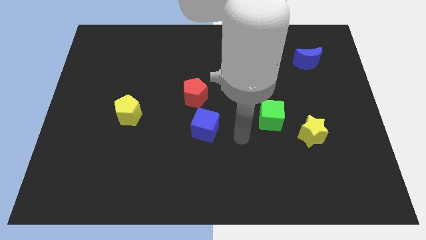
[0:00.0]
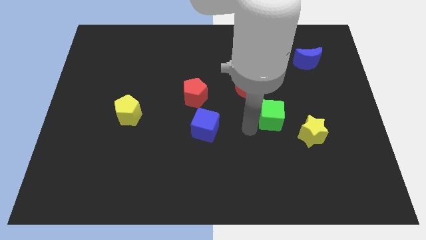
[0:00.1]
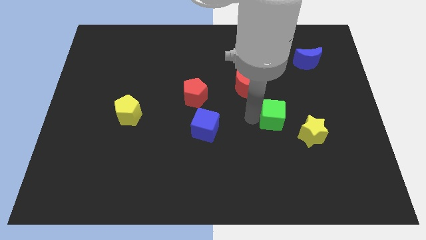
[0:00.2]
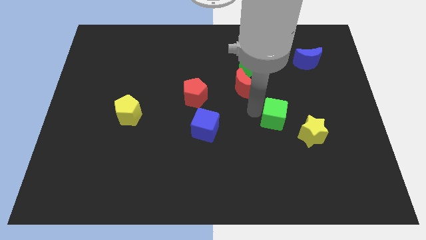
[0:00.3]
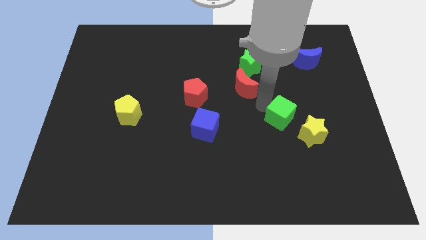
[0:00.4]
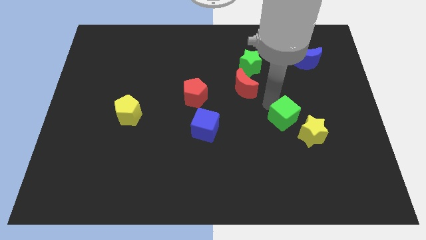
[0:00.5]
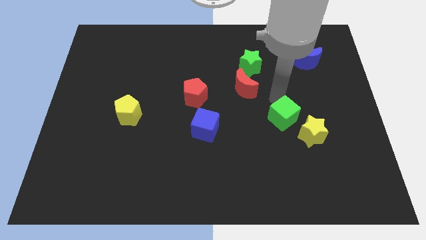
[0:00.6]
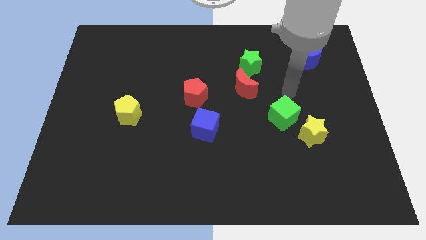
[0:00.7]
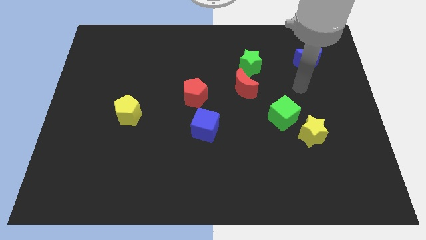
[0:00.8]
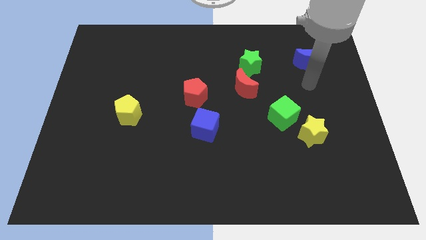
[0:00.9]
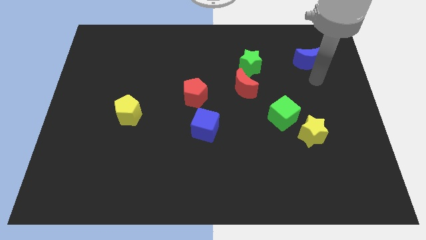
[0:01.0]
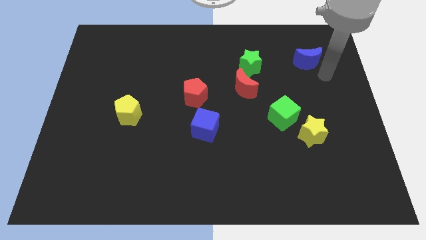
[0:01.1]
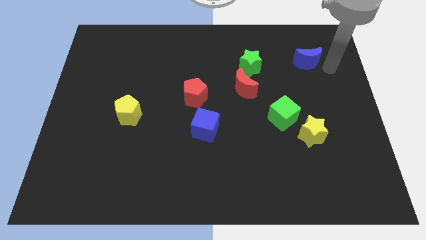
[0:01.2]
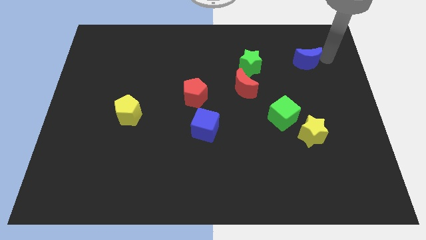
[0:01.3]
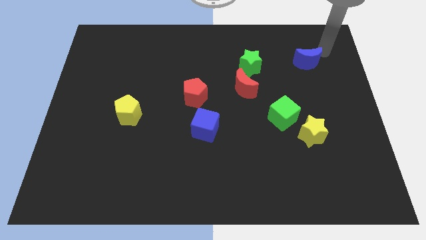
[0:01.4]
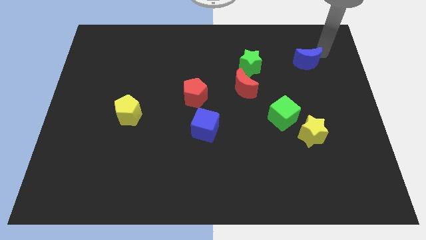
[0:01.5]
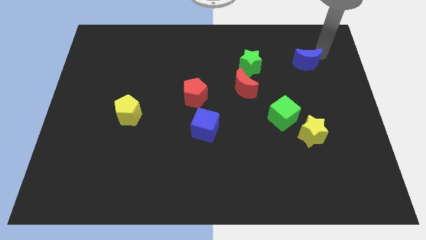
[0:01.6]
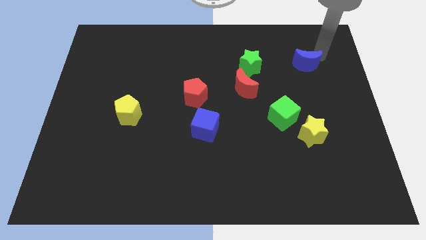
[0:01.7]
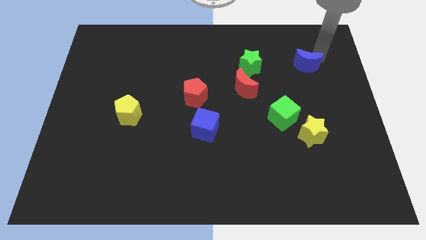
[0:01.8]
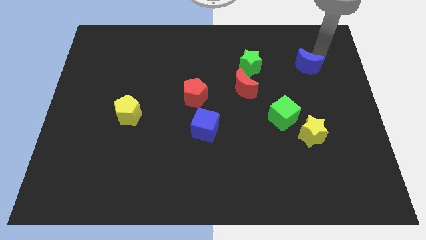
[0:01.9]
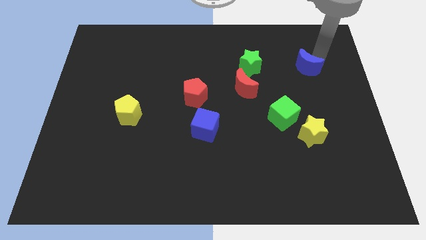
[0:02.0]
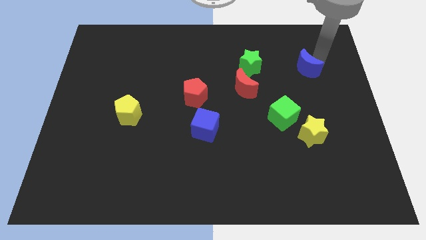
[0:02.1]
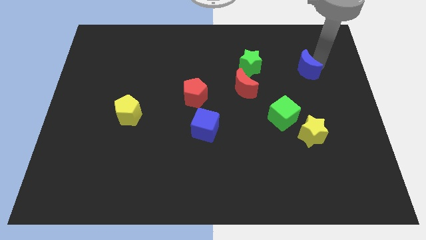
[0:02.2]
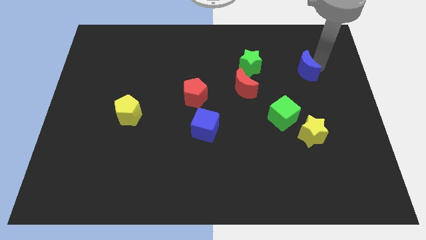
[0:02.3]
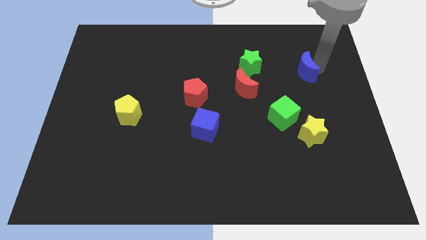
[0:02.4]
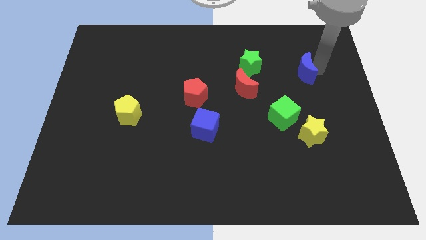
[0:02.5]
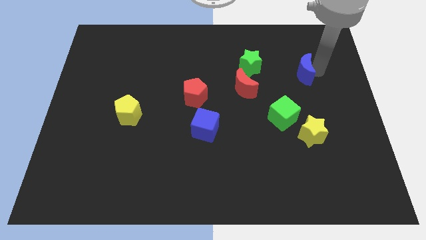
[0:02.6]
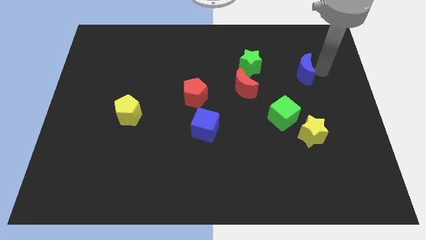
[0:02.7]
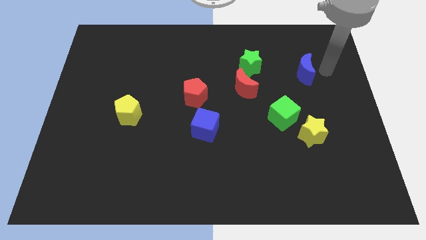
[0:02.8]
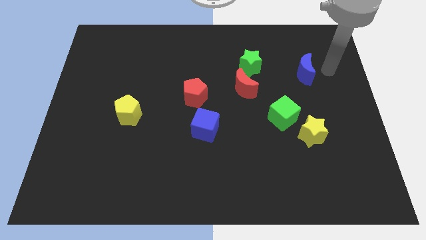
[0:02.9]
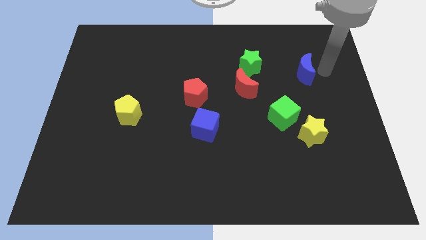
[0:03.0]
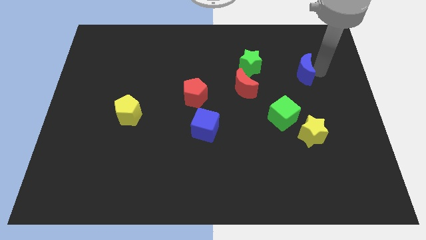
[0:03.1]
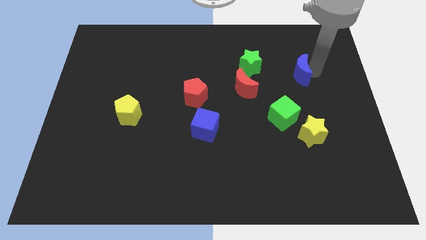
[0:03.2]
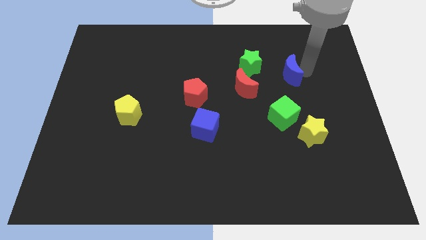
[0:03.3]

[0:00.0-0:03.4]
push the blue moon downwards and to the left slightly

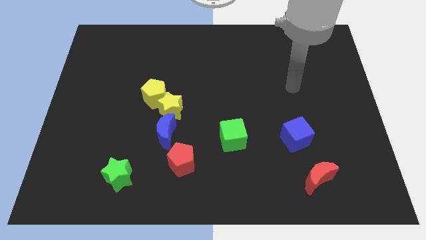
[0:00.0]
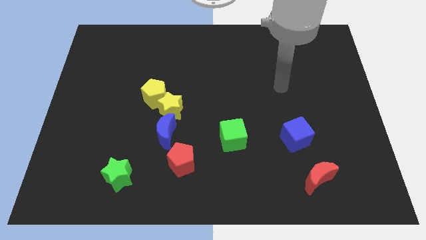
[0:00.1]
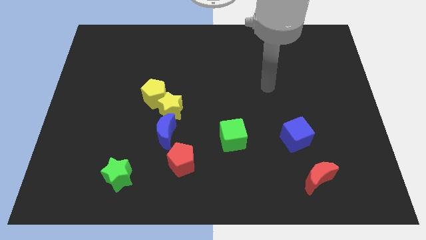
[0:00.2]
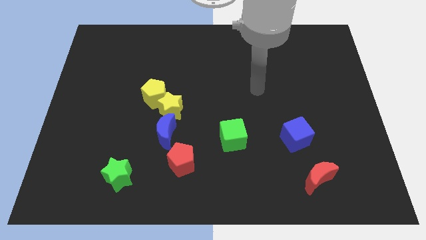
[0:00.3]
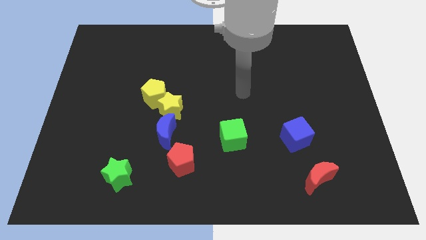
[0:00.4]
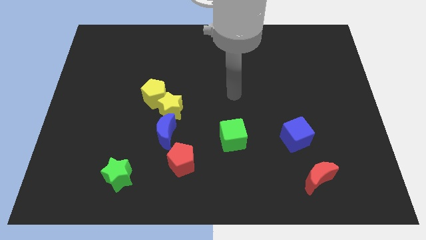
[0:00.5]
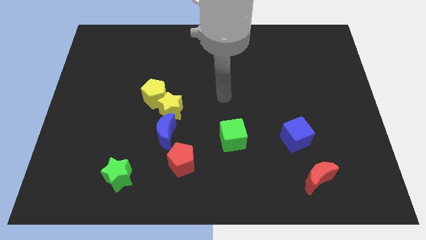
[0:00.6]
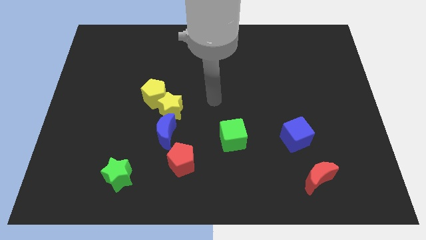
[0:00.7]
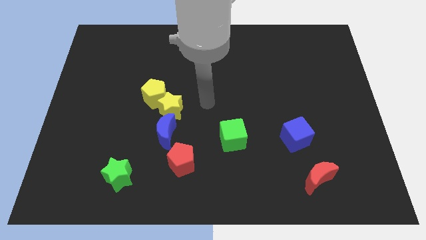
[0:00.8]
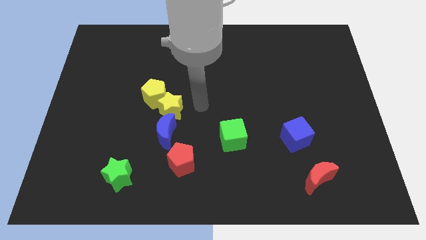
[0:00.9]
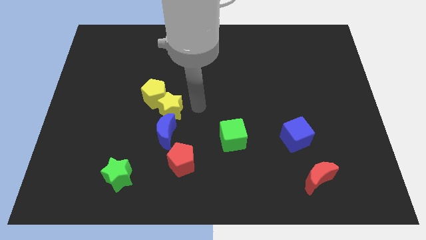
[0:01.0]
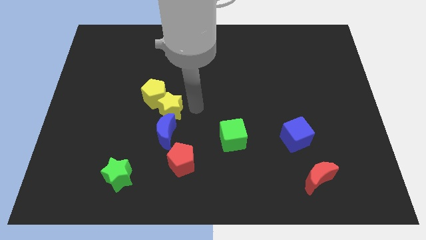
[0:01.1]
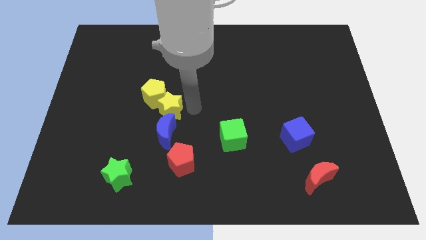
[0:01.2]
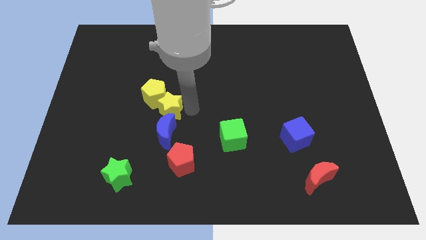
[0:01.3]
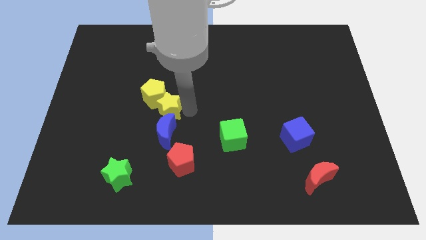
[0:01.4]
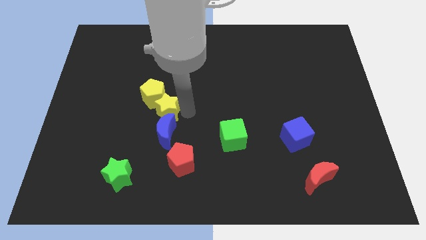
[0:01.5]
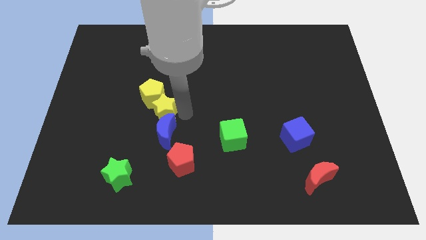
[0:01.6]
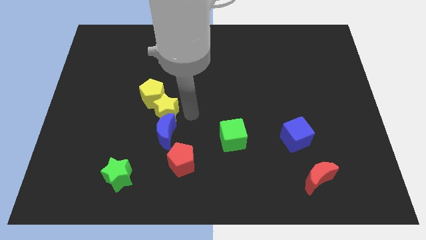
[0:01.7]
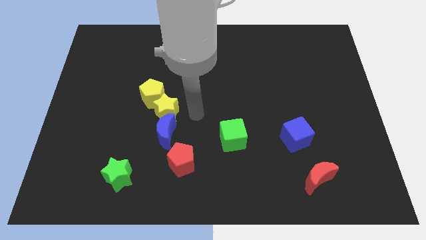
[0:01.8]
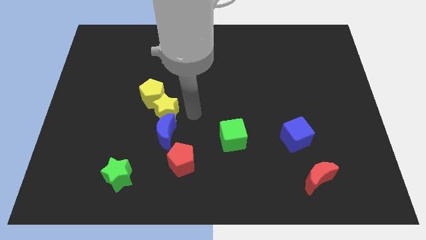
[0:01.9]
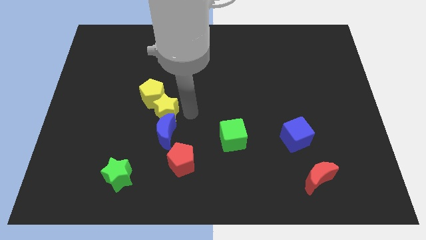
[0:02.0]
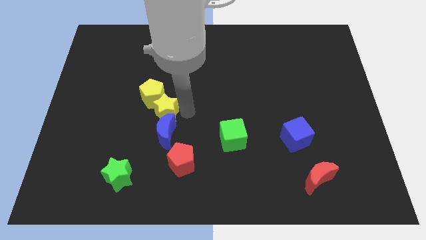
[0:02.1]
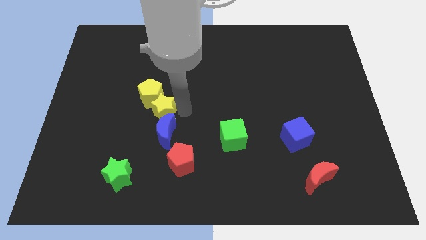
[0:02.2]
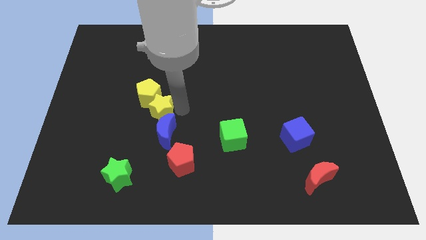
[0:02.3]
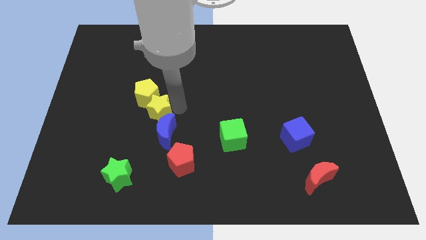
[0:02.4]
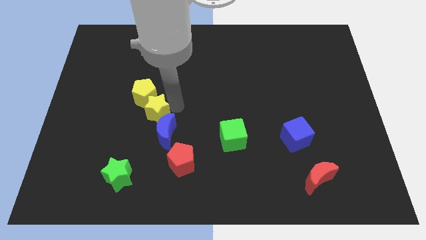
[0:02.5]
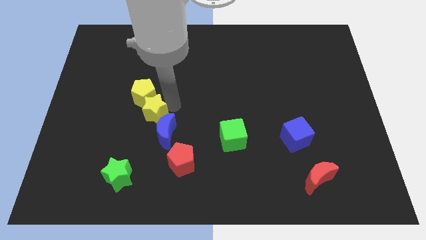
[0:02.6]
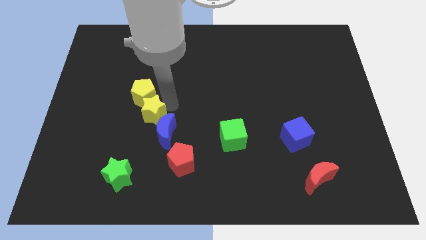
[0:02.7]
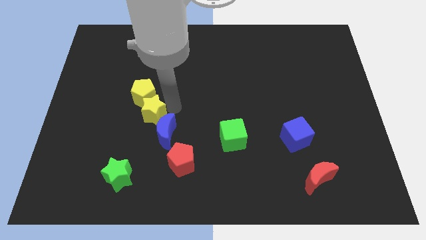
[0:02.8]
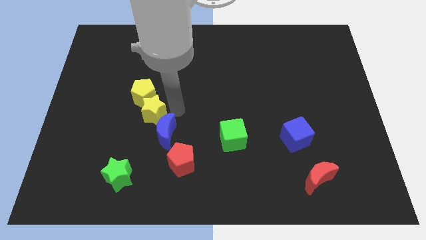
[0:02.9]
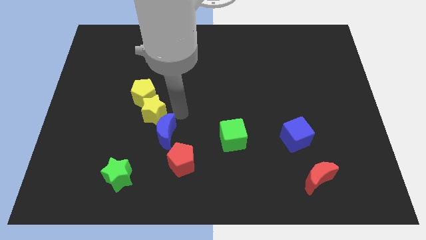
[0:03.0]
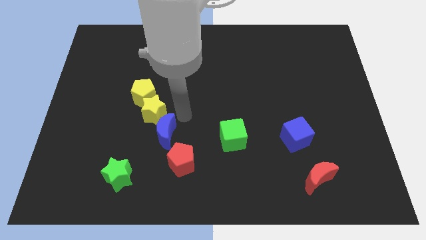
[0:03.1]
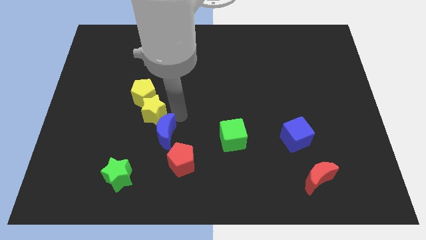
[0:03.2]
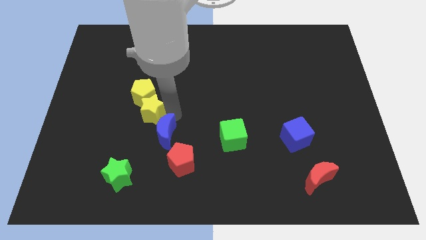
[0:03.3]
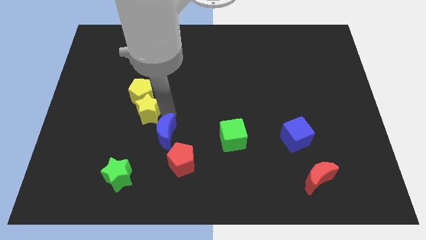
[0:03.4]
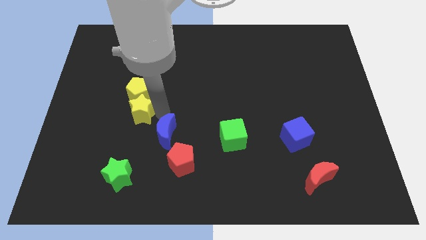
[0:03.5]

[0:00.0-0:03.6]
move the yellow star left a little

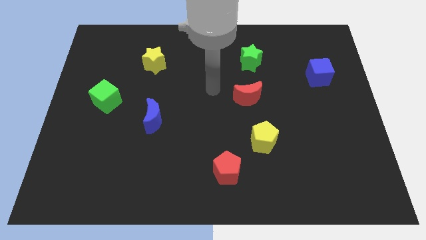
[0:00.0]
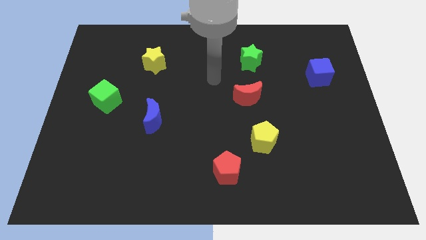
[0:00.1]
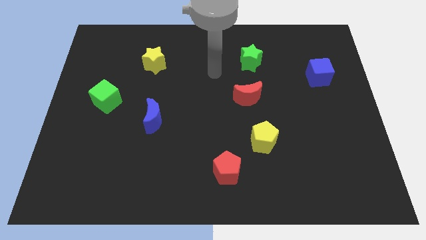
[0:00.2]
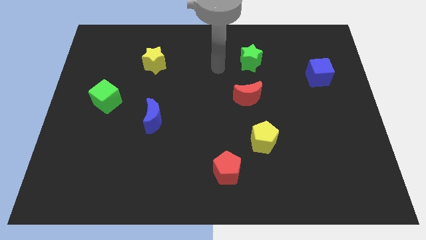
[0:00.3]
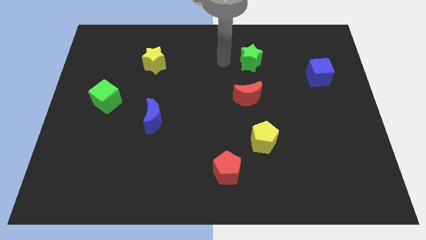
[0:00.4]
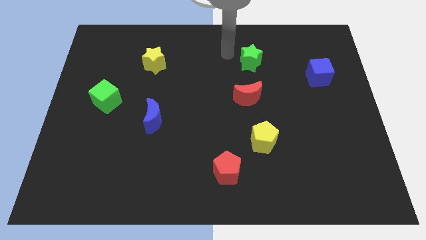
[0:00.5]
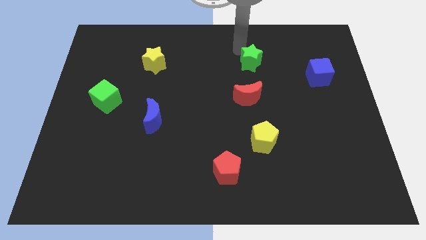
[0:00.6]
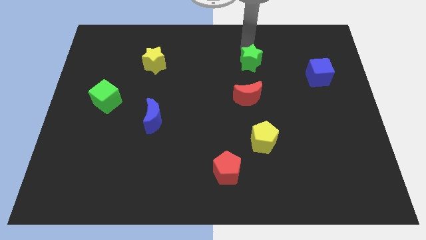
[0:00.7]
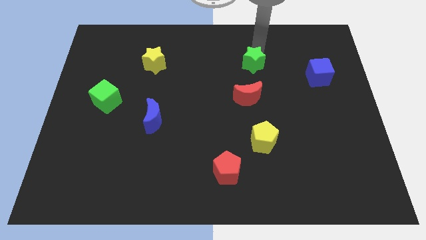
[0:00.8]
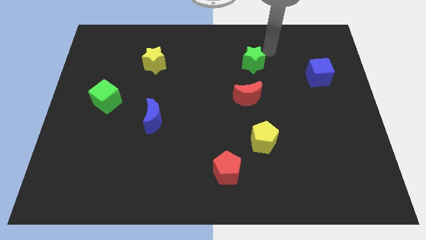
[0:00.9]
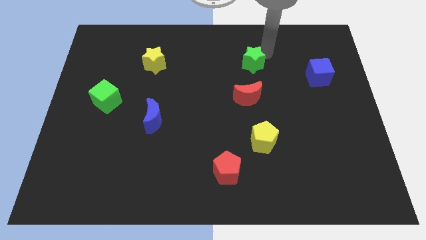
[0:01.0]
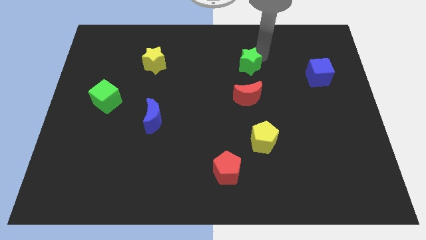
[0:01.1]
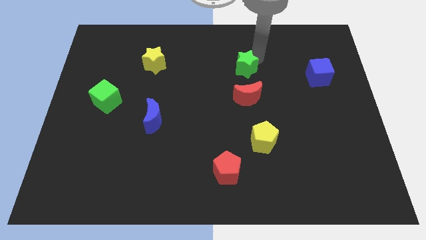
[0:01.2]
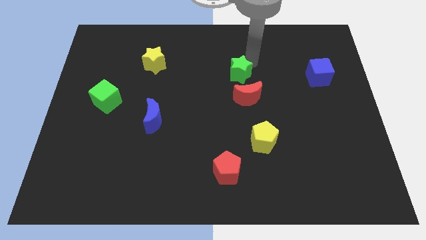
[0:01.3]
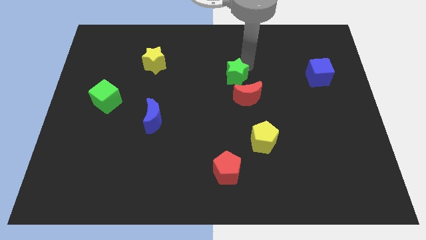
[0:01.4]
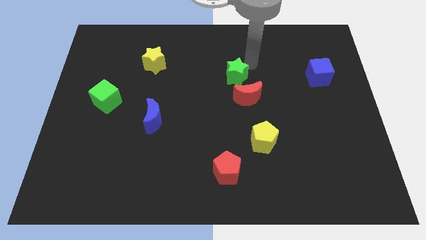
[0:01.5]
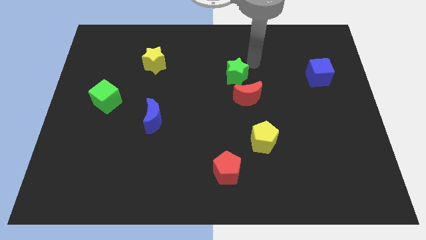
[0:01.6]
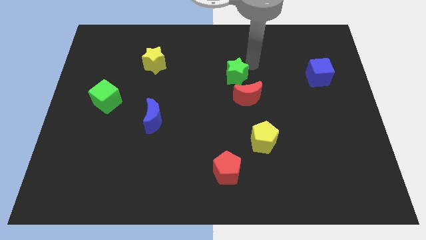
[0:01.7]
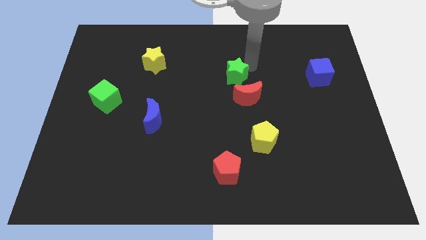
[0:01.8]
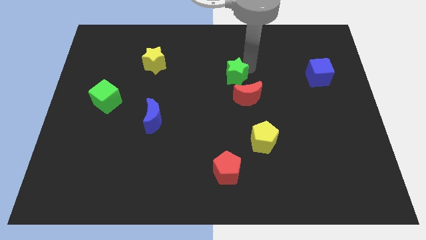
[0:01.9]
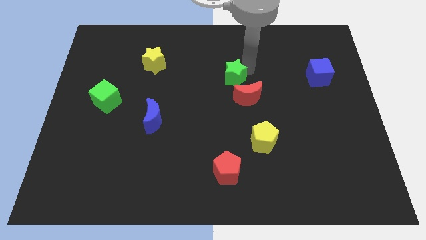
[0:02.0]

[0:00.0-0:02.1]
push the green star a little bit downwards and to the left
